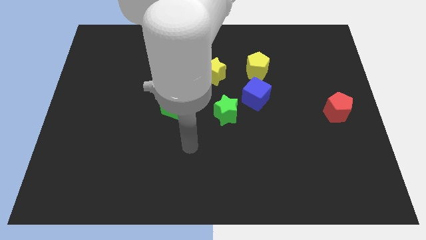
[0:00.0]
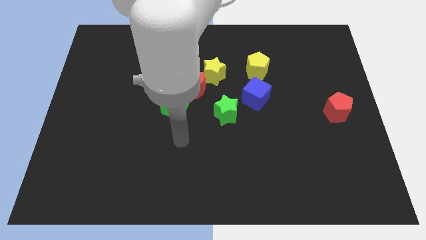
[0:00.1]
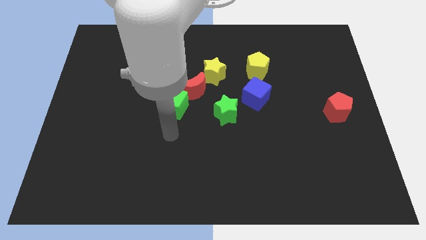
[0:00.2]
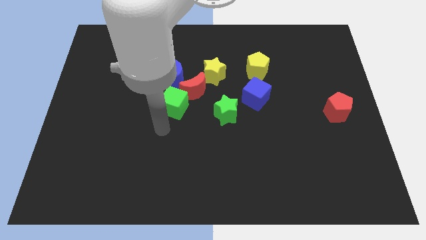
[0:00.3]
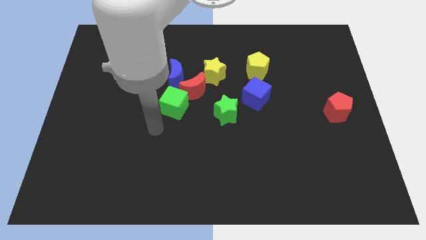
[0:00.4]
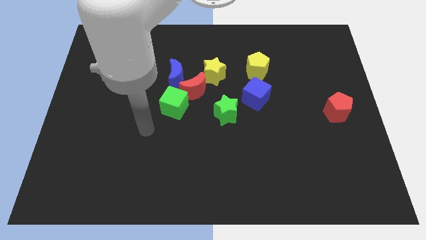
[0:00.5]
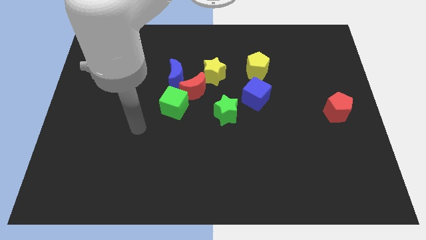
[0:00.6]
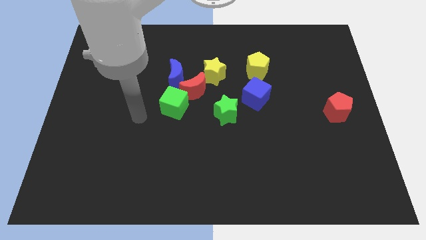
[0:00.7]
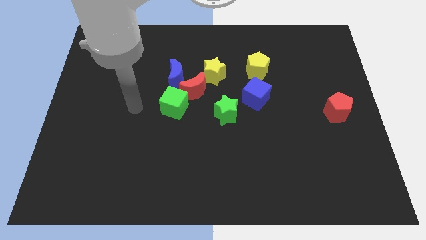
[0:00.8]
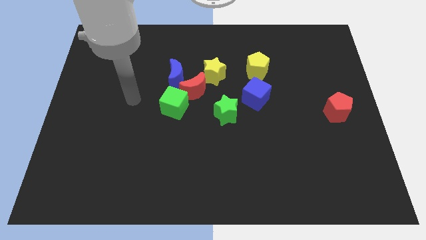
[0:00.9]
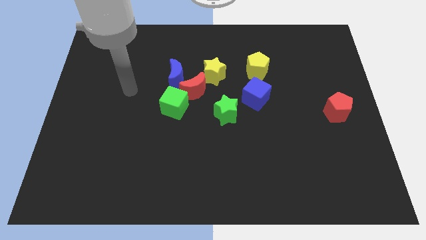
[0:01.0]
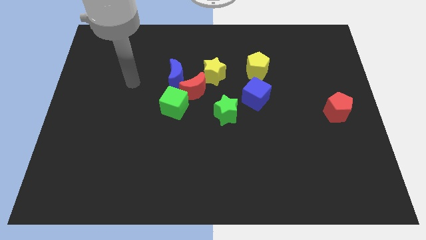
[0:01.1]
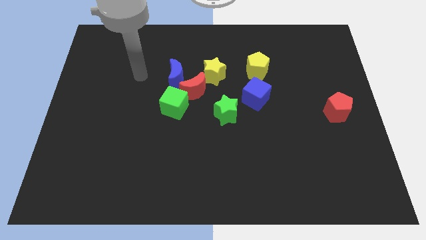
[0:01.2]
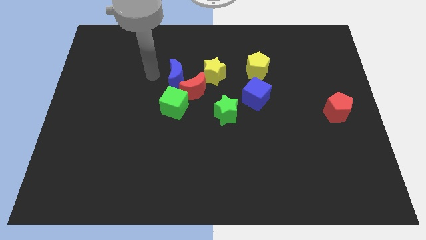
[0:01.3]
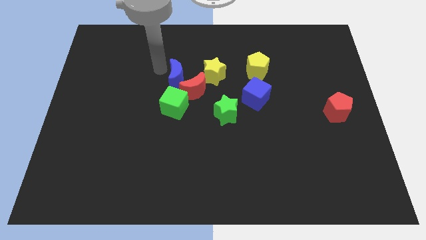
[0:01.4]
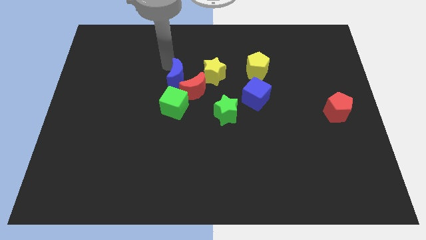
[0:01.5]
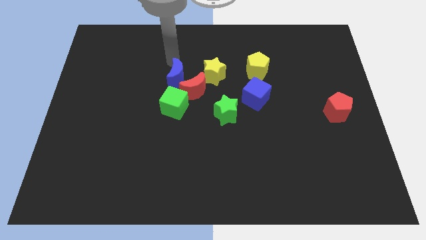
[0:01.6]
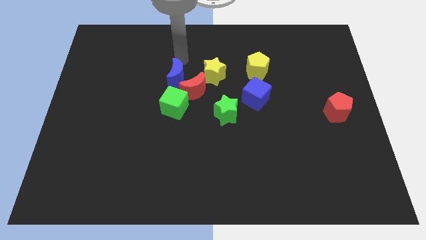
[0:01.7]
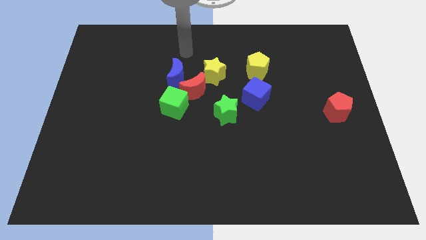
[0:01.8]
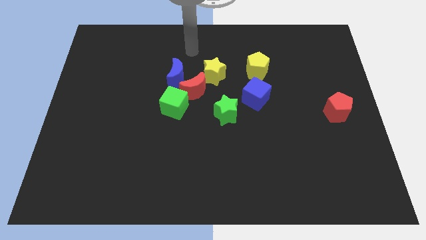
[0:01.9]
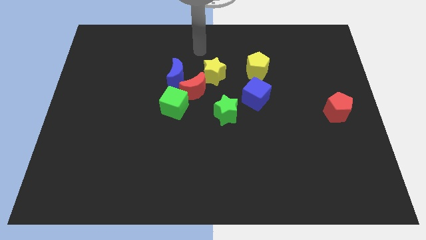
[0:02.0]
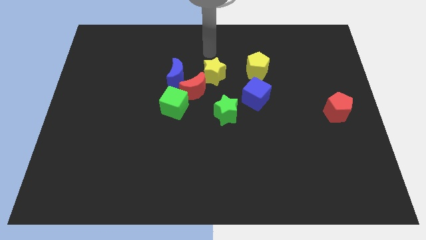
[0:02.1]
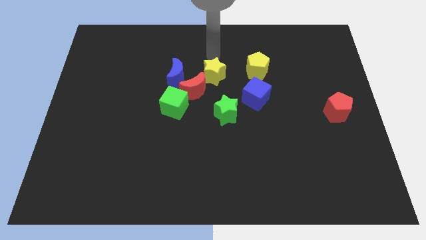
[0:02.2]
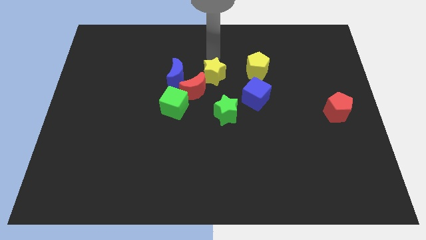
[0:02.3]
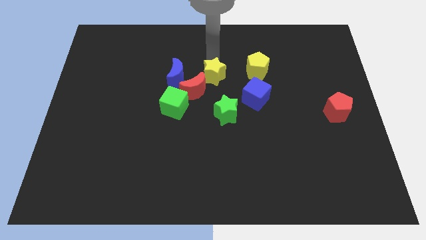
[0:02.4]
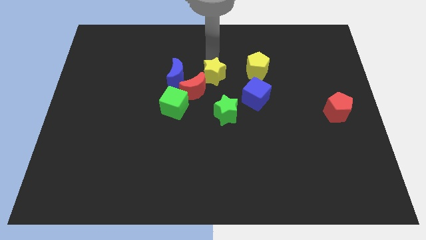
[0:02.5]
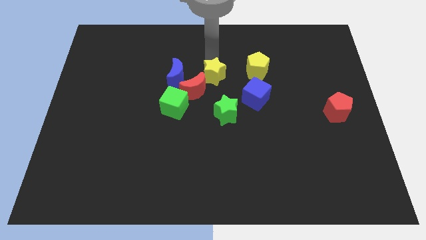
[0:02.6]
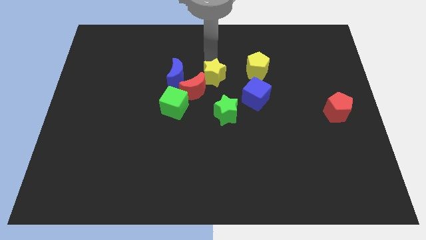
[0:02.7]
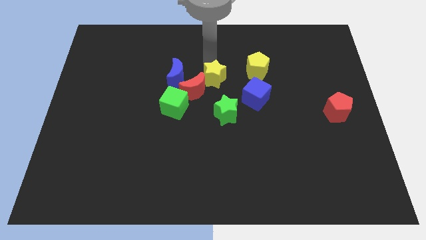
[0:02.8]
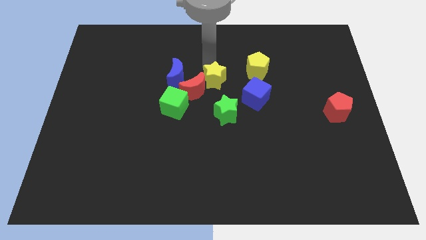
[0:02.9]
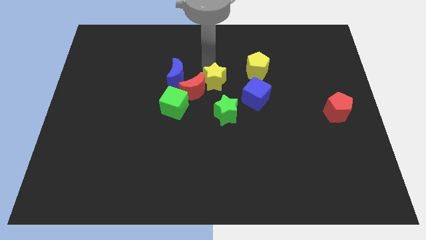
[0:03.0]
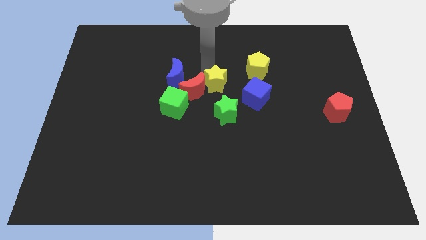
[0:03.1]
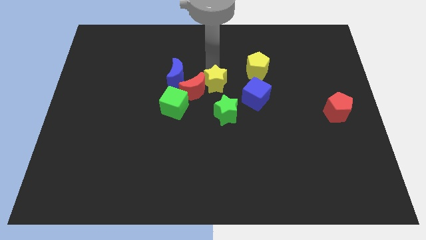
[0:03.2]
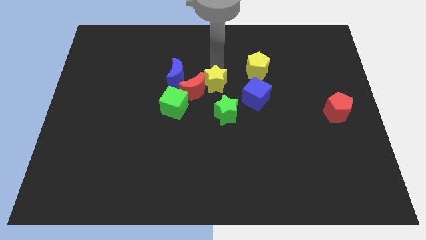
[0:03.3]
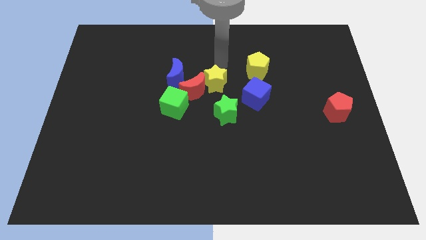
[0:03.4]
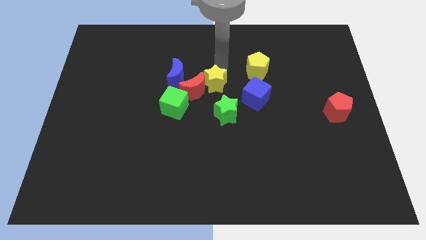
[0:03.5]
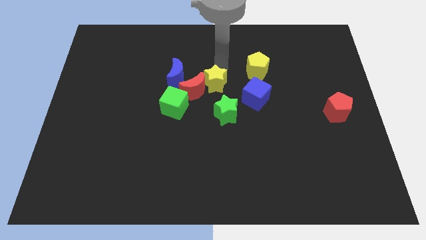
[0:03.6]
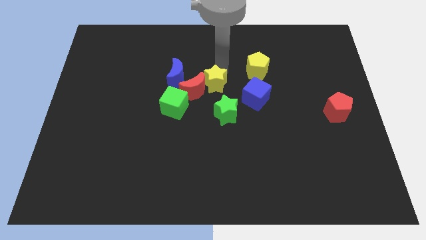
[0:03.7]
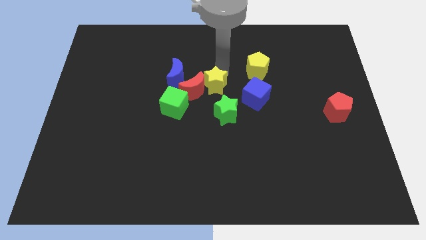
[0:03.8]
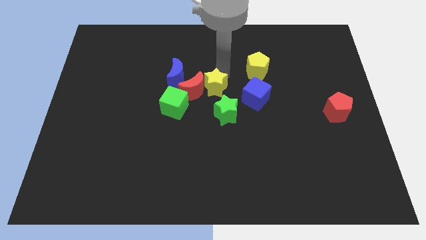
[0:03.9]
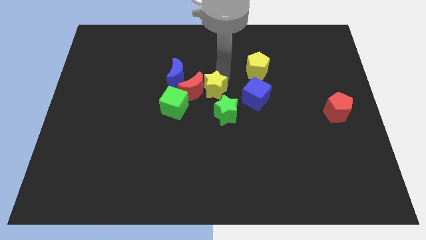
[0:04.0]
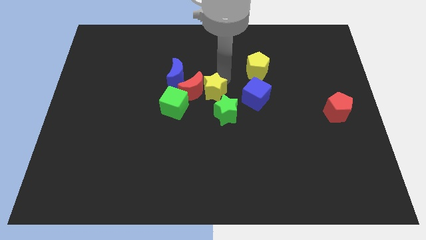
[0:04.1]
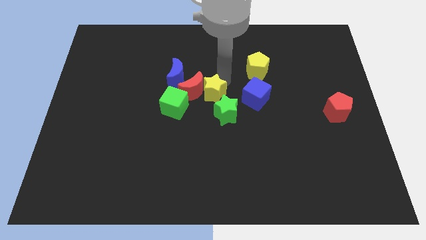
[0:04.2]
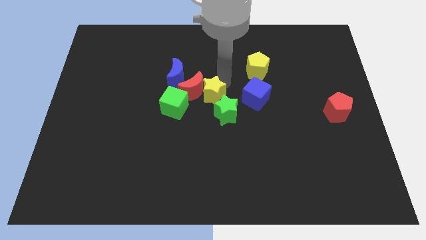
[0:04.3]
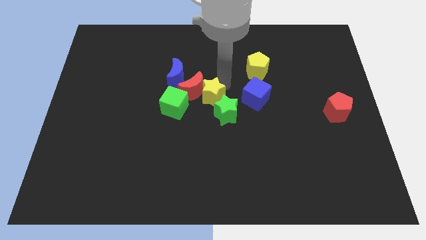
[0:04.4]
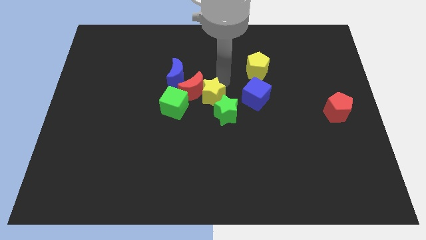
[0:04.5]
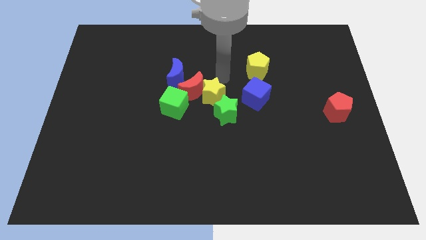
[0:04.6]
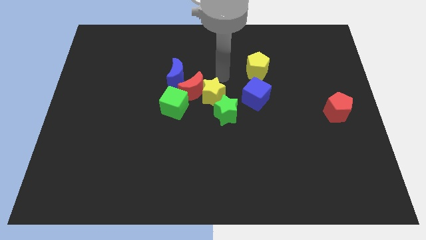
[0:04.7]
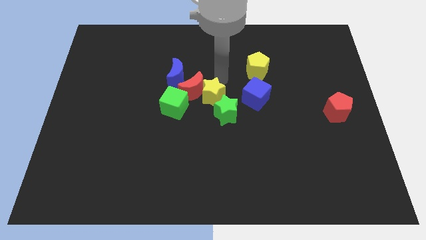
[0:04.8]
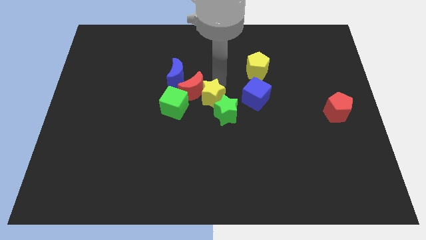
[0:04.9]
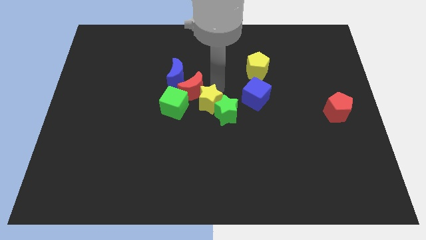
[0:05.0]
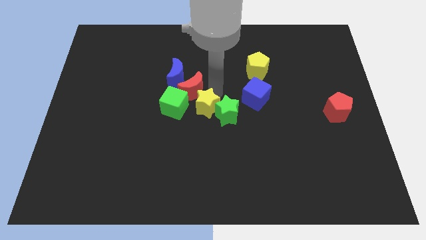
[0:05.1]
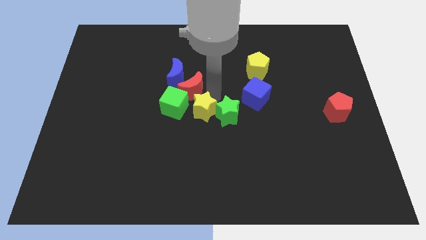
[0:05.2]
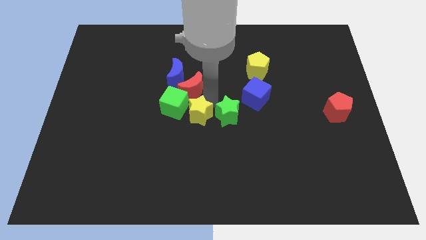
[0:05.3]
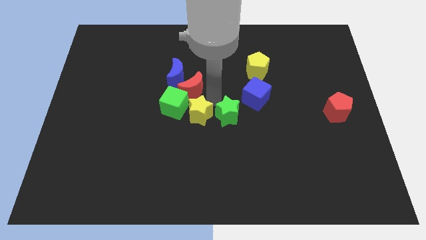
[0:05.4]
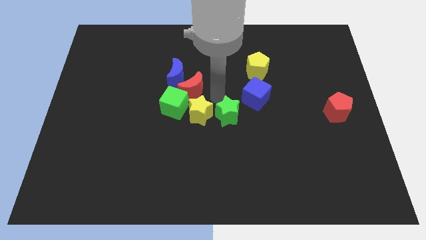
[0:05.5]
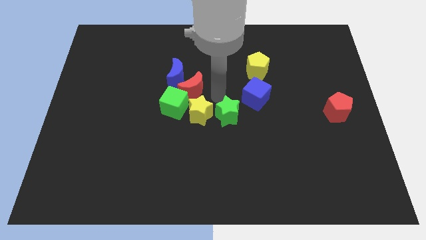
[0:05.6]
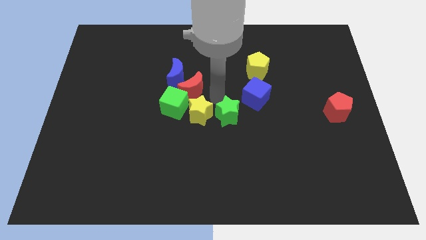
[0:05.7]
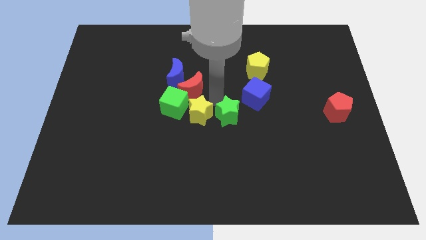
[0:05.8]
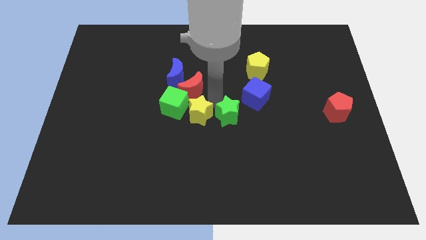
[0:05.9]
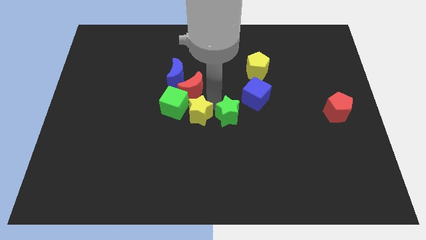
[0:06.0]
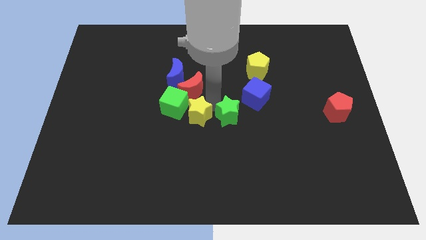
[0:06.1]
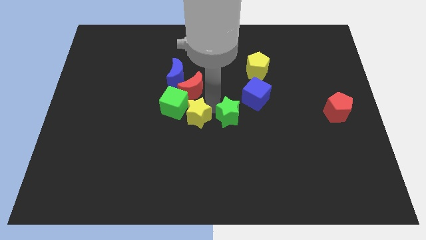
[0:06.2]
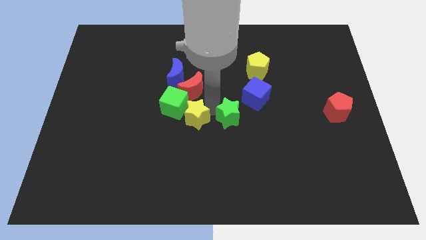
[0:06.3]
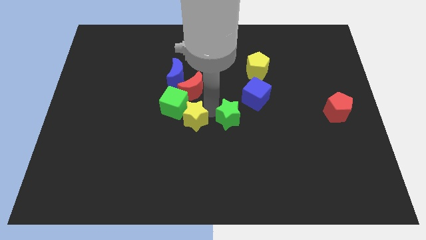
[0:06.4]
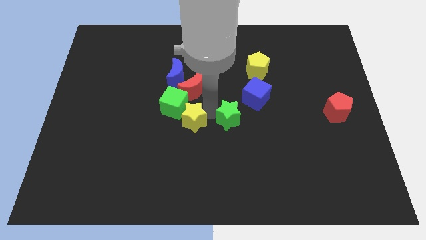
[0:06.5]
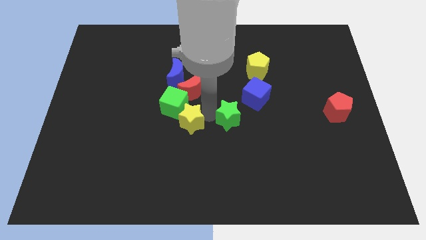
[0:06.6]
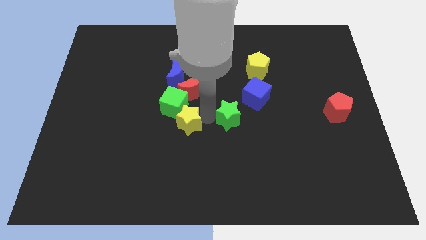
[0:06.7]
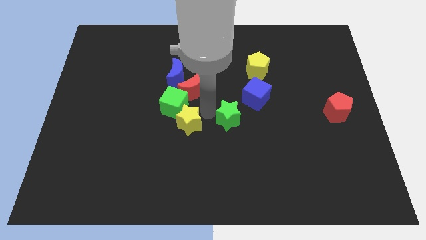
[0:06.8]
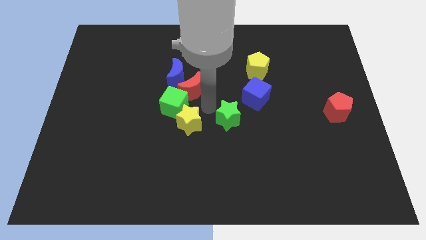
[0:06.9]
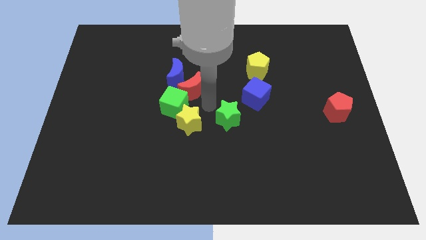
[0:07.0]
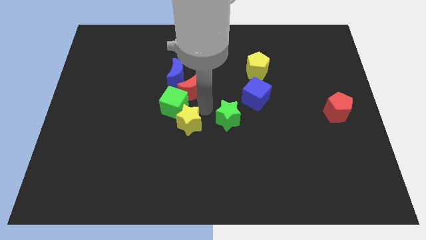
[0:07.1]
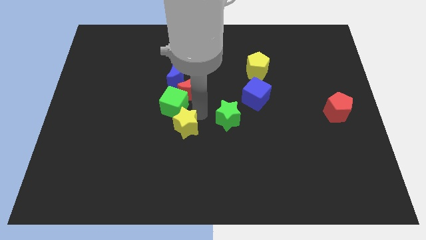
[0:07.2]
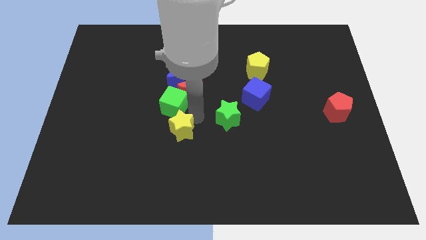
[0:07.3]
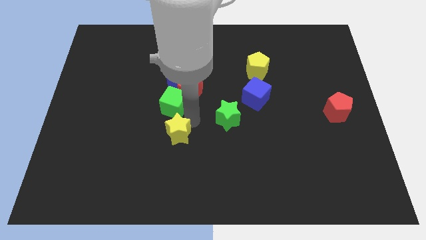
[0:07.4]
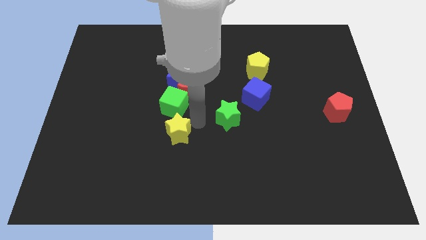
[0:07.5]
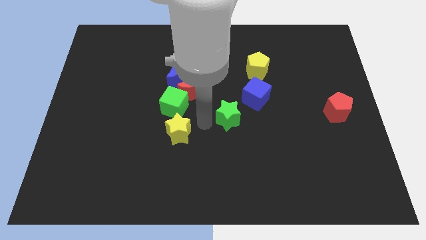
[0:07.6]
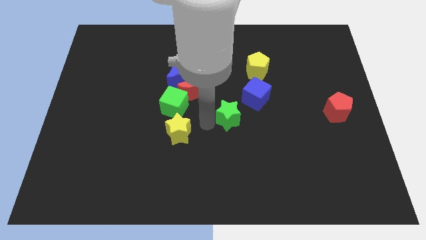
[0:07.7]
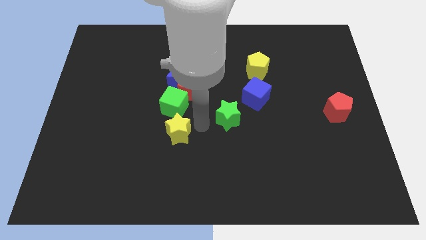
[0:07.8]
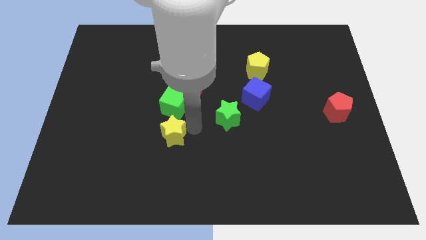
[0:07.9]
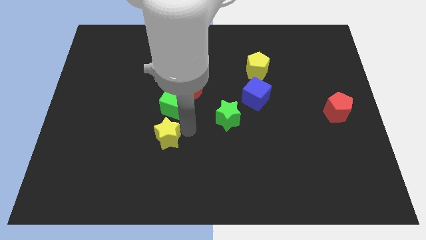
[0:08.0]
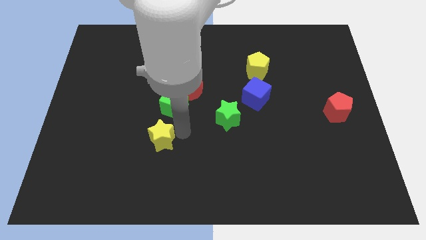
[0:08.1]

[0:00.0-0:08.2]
push the yellow star down and left diagonally

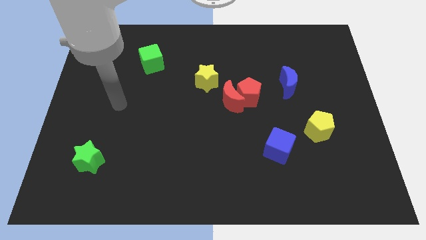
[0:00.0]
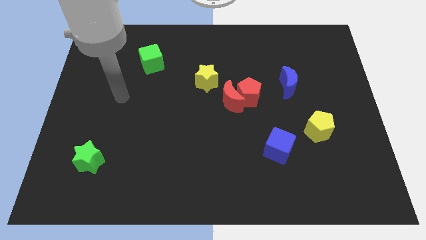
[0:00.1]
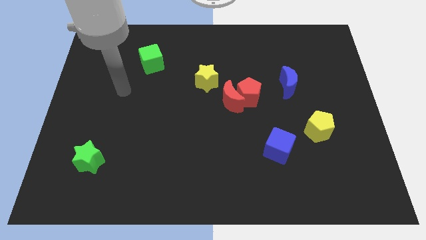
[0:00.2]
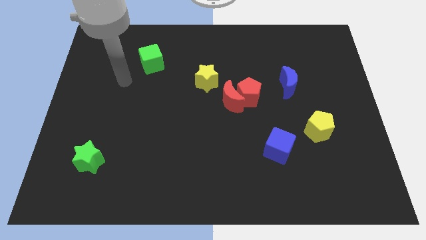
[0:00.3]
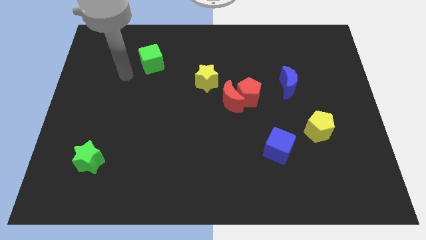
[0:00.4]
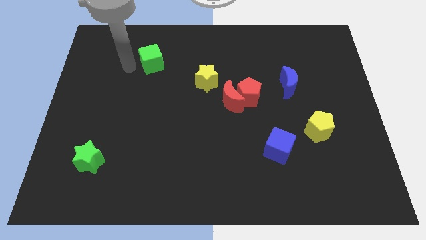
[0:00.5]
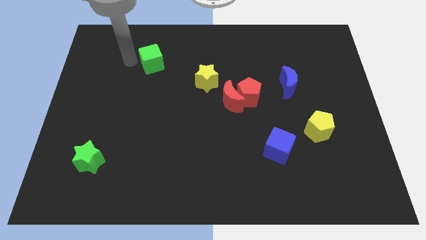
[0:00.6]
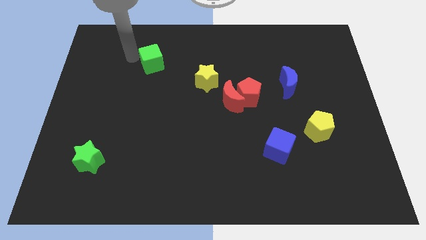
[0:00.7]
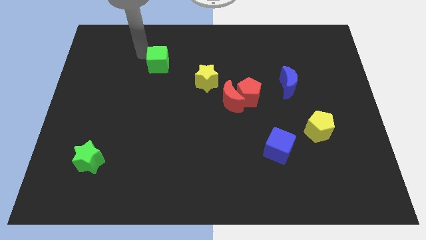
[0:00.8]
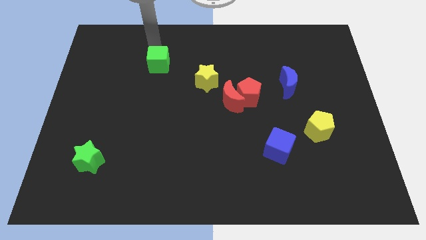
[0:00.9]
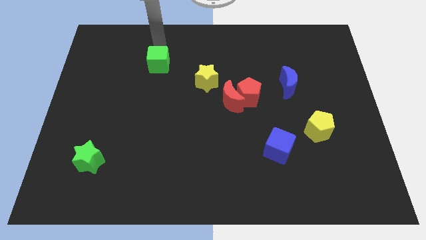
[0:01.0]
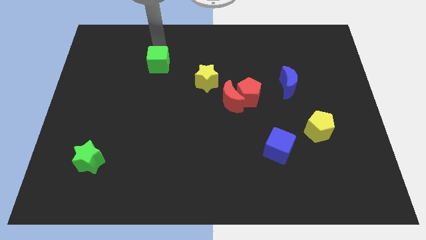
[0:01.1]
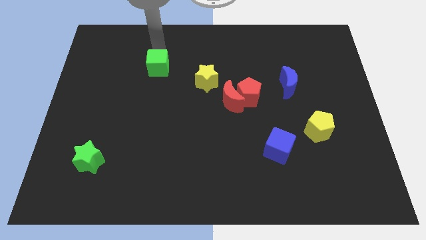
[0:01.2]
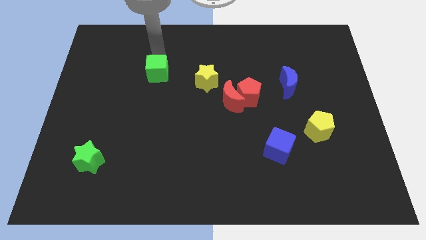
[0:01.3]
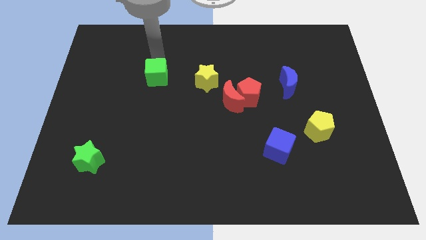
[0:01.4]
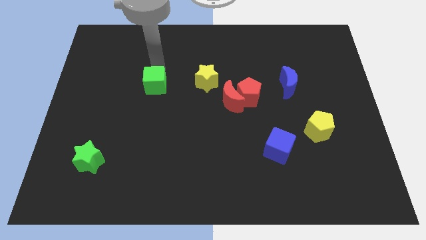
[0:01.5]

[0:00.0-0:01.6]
move the green cube downwards slightly
